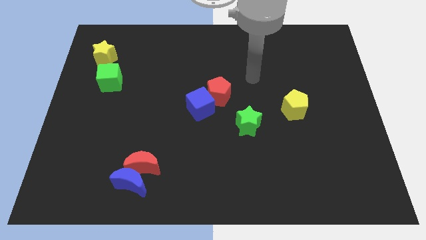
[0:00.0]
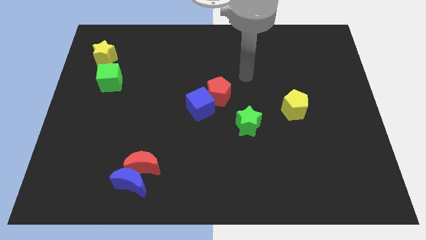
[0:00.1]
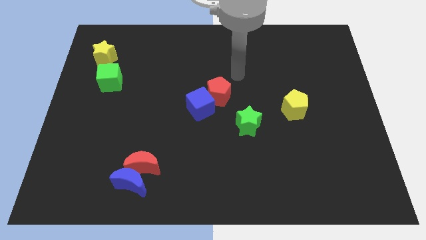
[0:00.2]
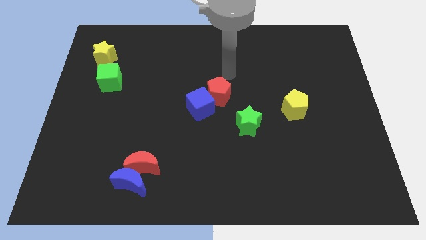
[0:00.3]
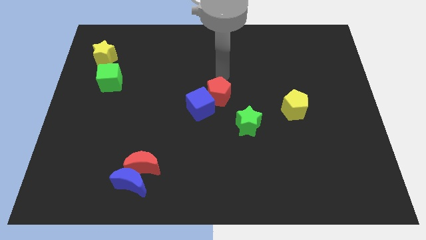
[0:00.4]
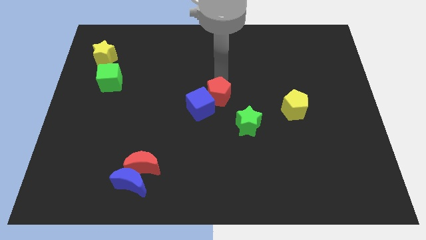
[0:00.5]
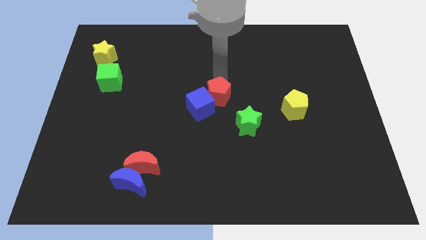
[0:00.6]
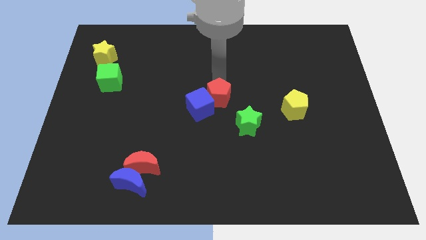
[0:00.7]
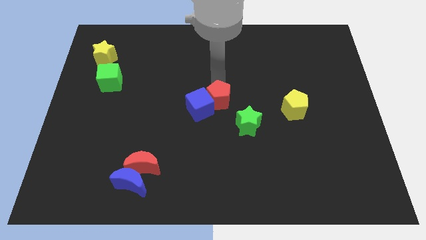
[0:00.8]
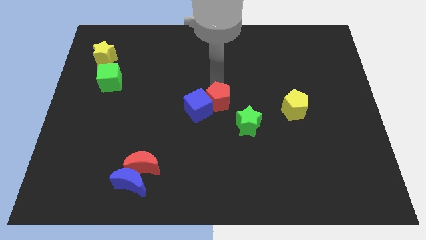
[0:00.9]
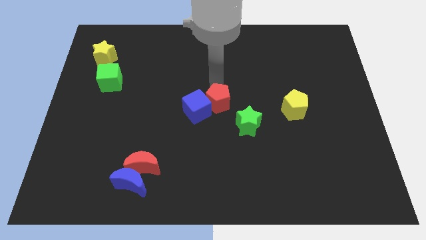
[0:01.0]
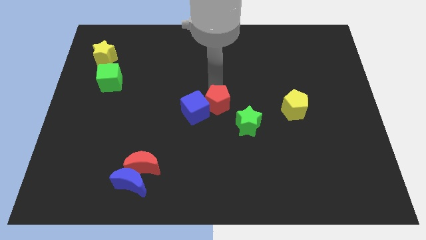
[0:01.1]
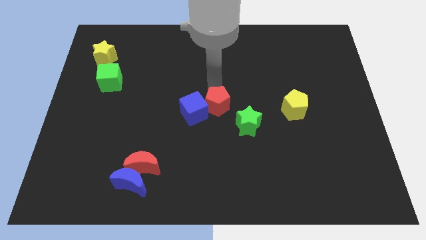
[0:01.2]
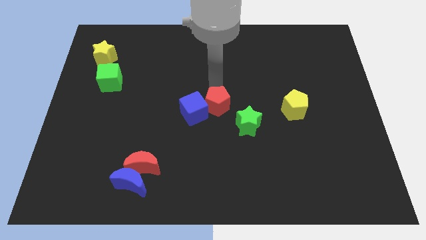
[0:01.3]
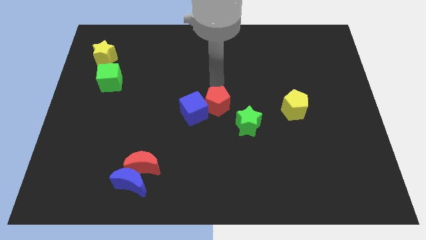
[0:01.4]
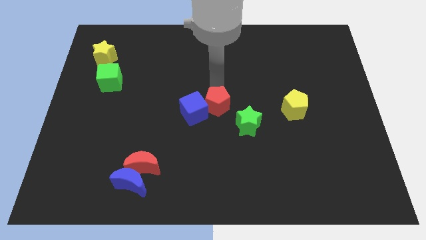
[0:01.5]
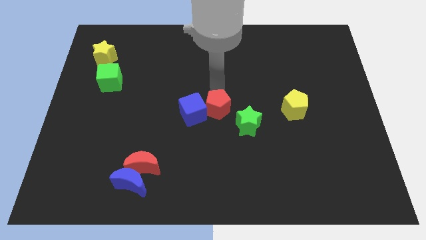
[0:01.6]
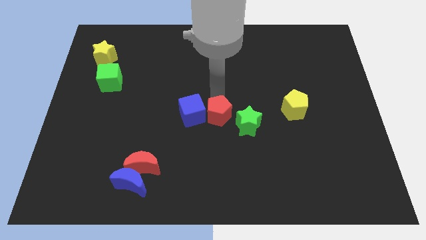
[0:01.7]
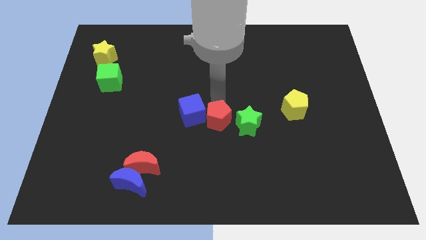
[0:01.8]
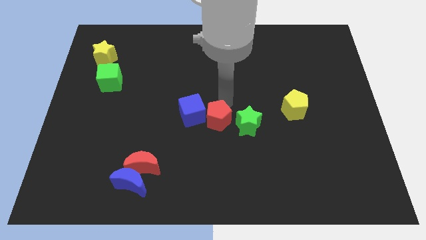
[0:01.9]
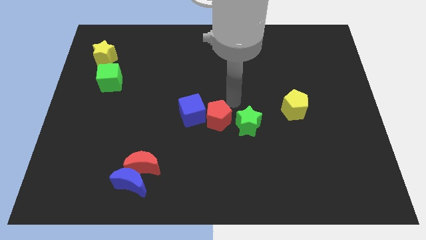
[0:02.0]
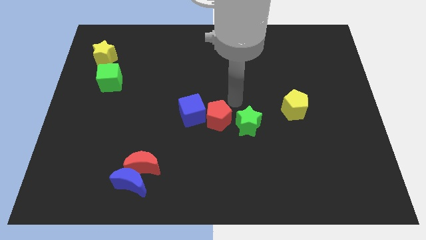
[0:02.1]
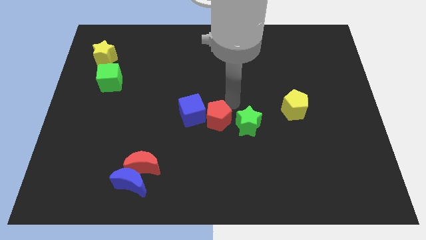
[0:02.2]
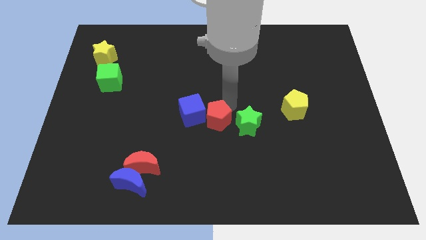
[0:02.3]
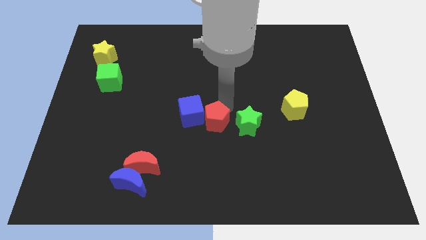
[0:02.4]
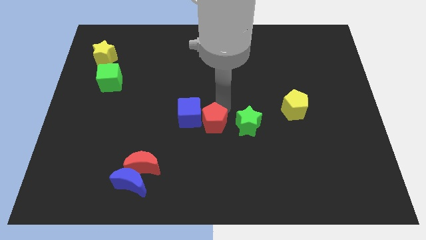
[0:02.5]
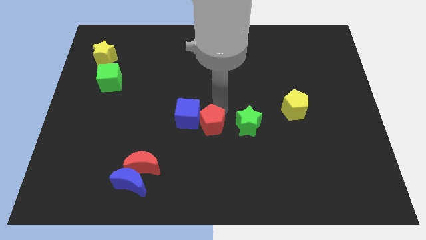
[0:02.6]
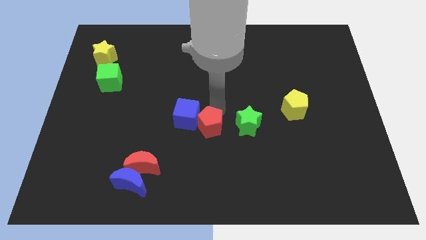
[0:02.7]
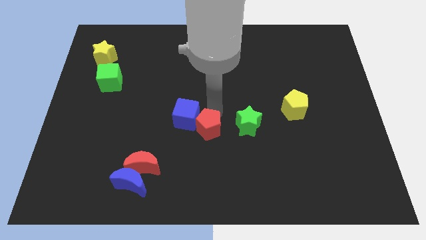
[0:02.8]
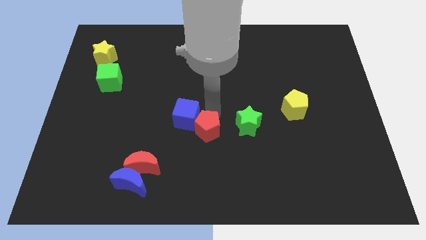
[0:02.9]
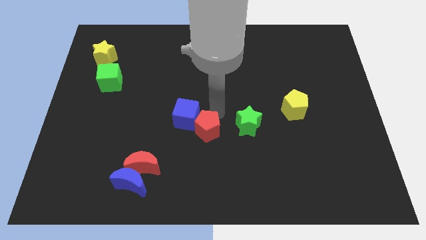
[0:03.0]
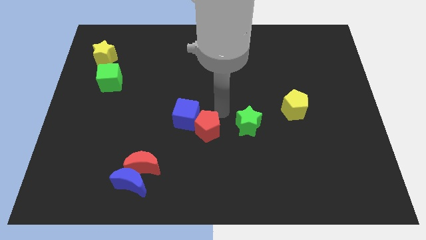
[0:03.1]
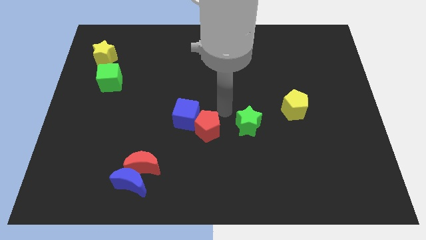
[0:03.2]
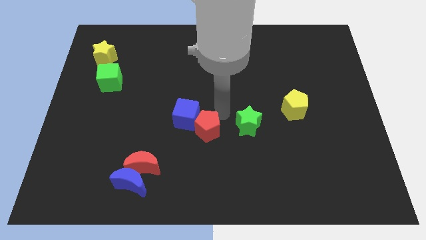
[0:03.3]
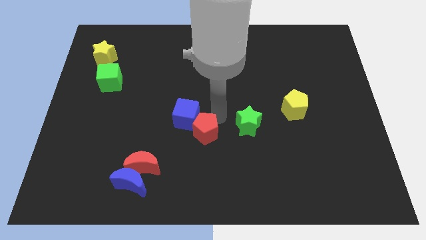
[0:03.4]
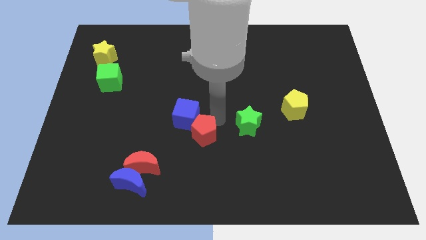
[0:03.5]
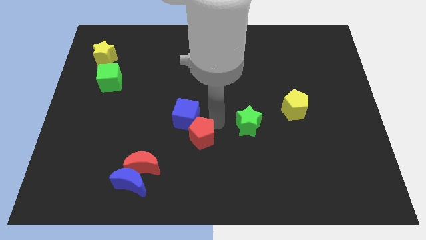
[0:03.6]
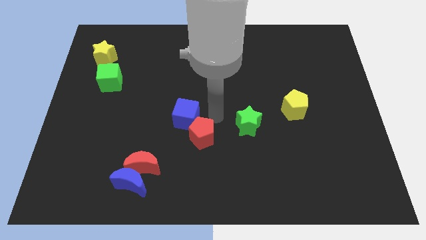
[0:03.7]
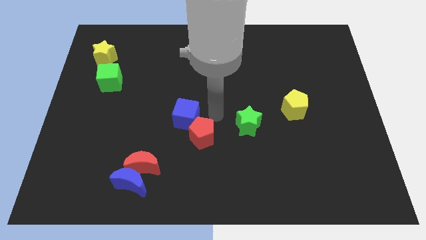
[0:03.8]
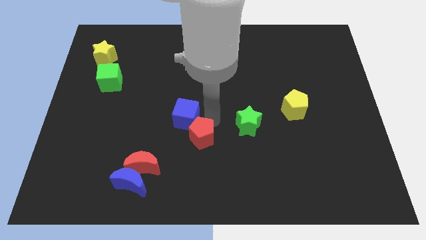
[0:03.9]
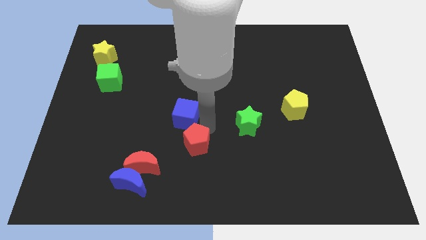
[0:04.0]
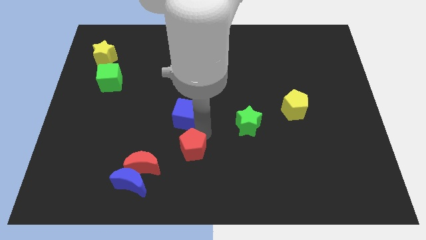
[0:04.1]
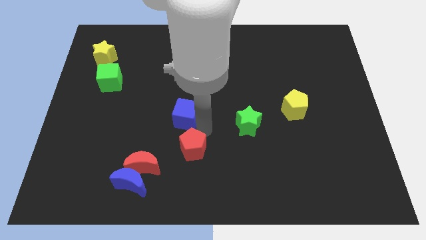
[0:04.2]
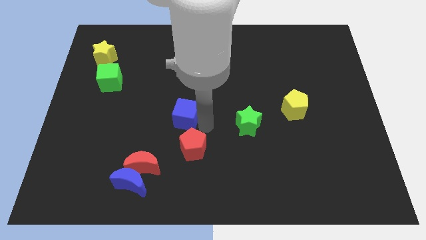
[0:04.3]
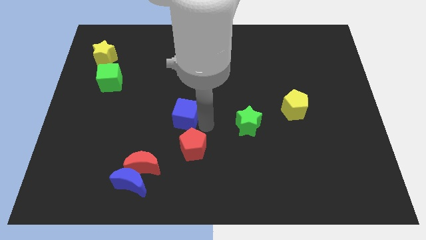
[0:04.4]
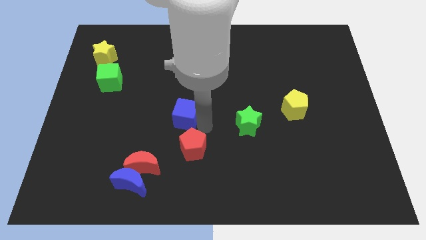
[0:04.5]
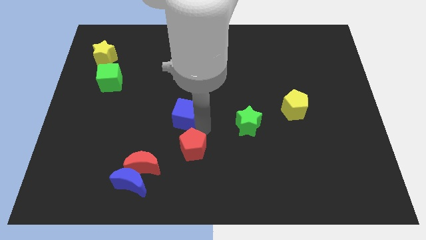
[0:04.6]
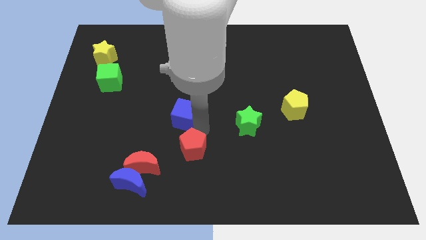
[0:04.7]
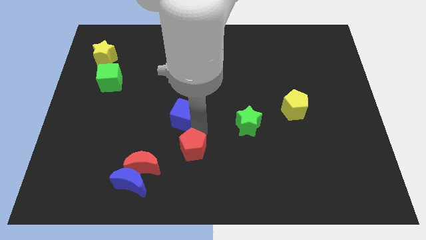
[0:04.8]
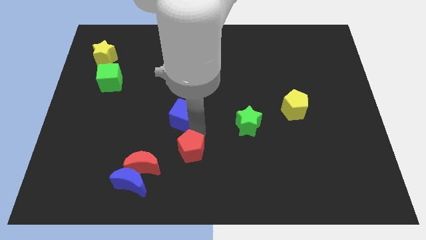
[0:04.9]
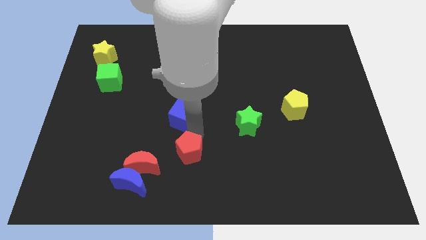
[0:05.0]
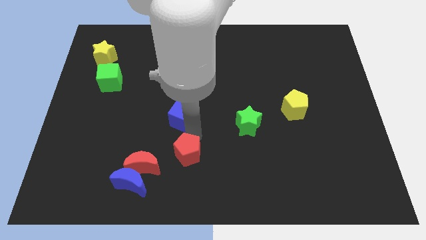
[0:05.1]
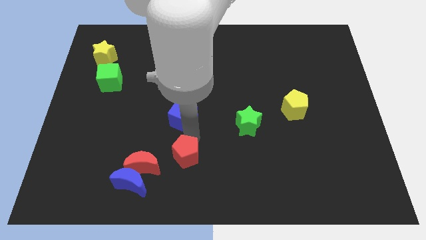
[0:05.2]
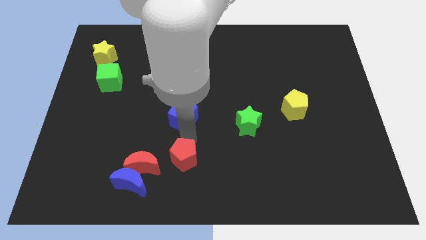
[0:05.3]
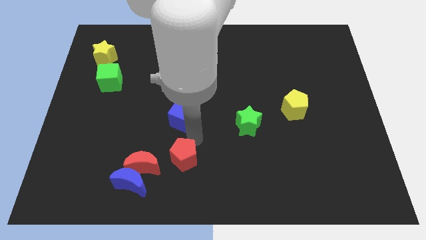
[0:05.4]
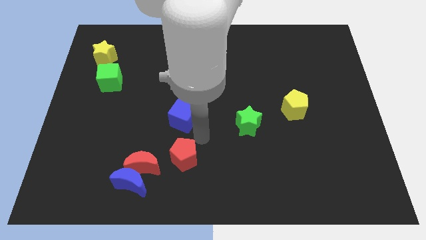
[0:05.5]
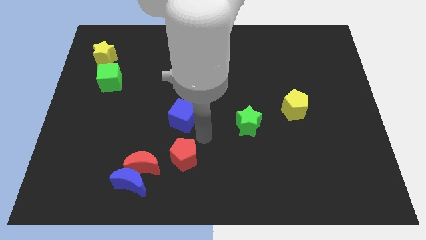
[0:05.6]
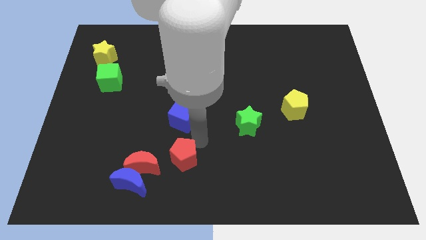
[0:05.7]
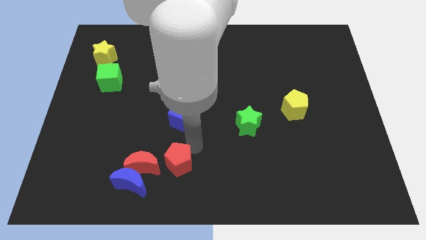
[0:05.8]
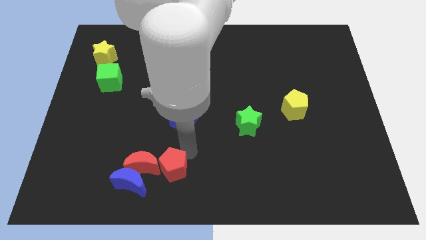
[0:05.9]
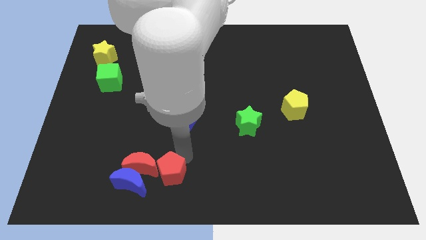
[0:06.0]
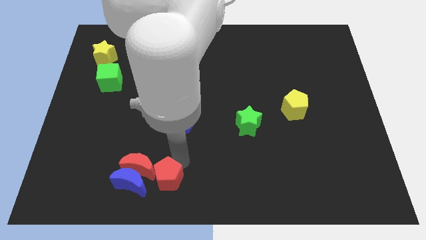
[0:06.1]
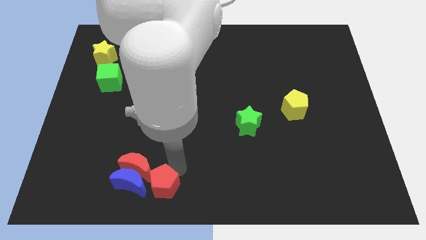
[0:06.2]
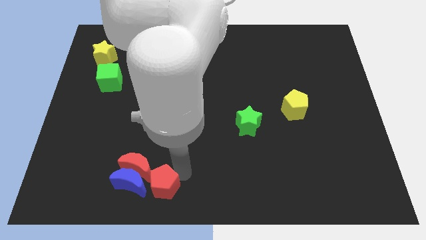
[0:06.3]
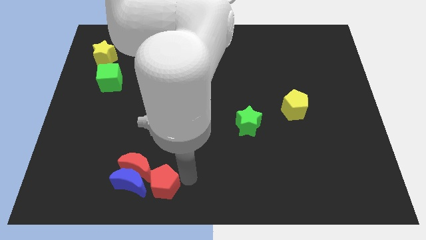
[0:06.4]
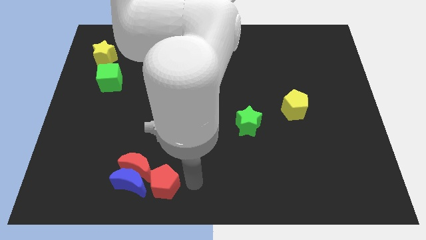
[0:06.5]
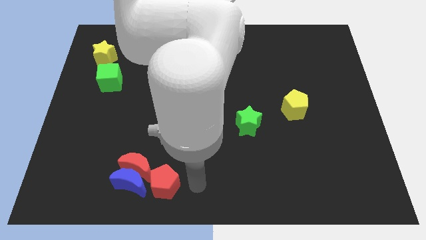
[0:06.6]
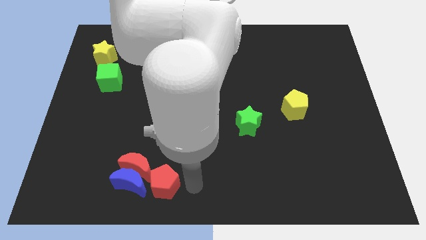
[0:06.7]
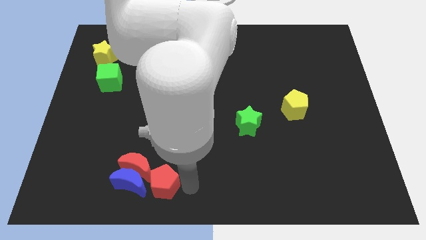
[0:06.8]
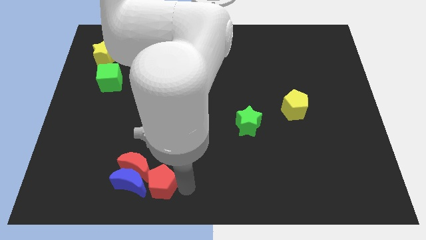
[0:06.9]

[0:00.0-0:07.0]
put the red pentagon next to the blue moon
